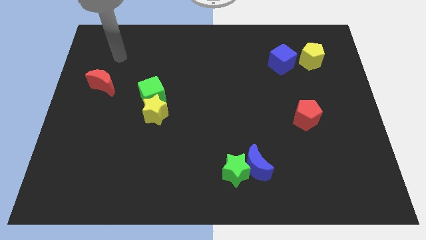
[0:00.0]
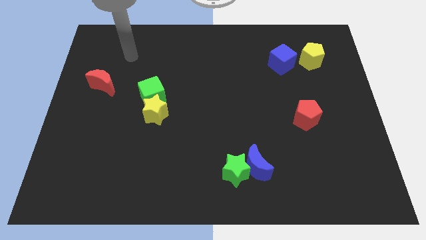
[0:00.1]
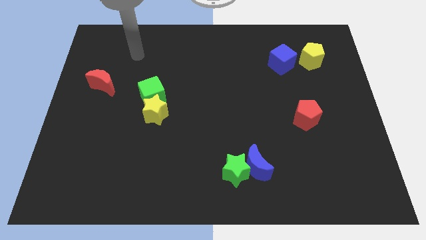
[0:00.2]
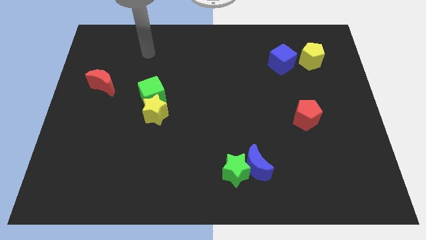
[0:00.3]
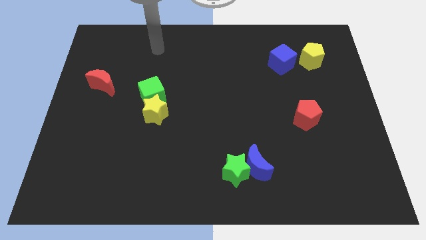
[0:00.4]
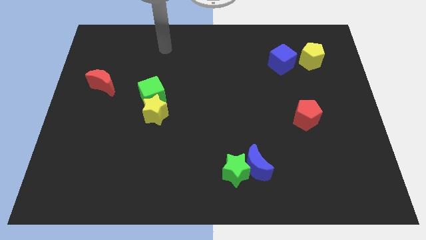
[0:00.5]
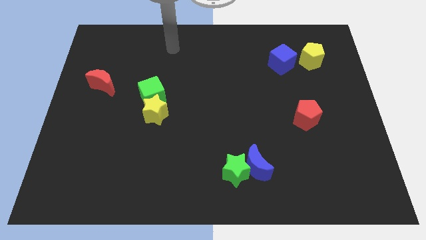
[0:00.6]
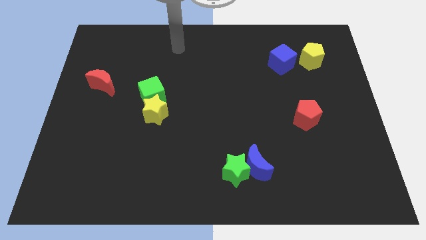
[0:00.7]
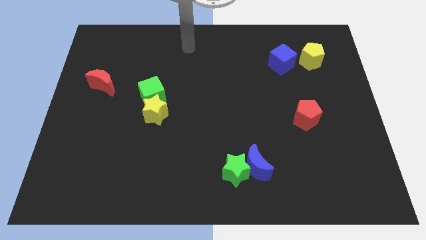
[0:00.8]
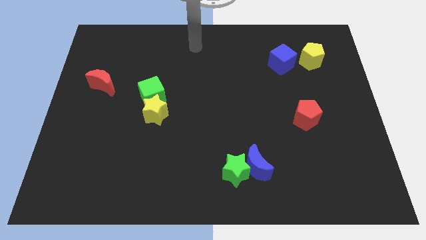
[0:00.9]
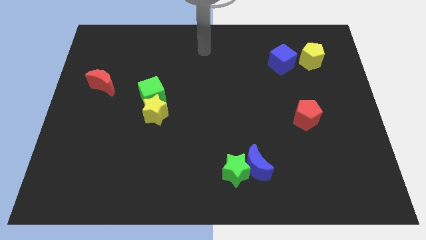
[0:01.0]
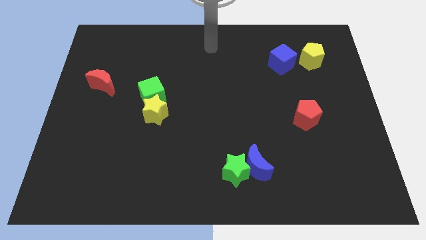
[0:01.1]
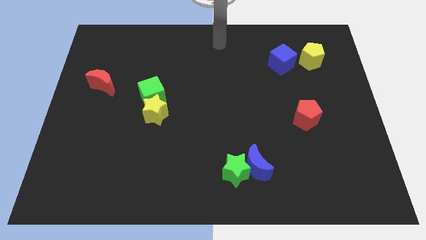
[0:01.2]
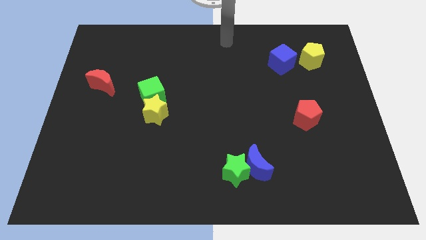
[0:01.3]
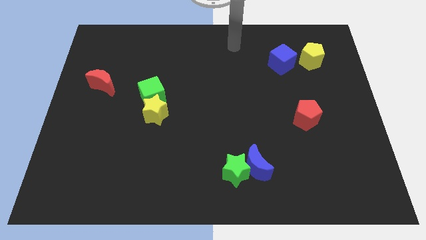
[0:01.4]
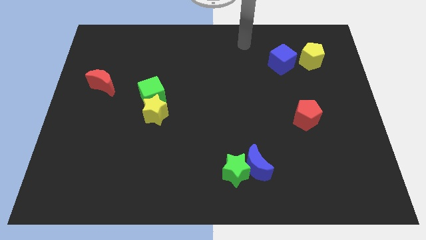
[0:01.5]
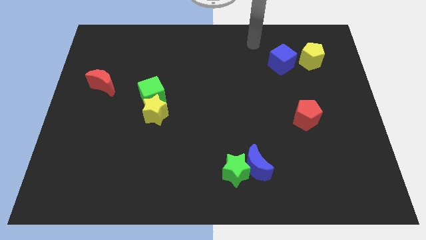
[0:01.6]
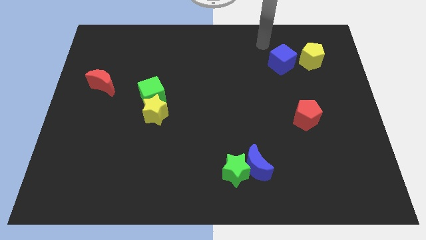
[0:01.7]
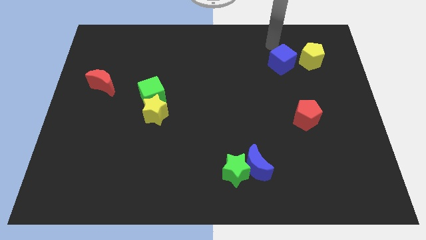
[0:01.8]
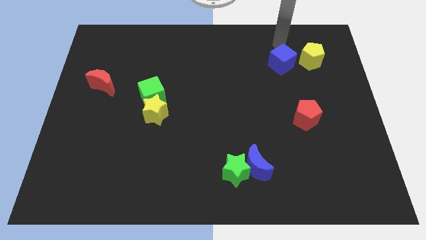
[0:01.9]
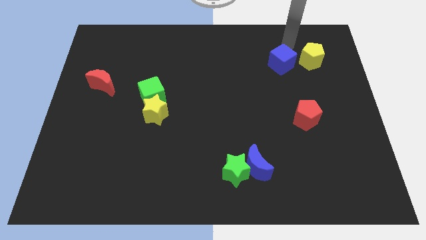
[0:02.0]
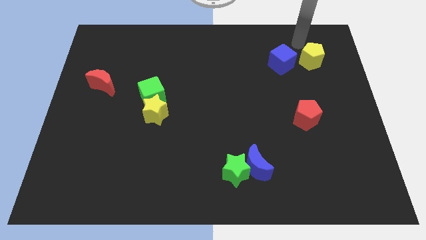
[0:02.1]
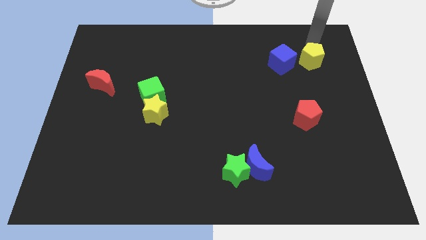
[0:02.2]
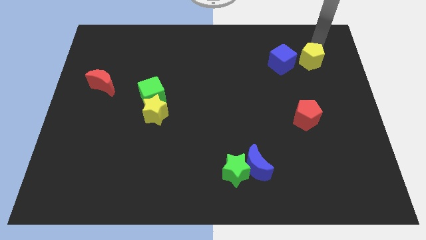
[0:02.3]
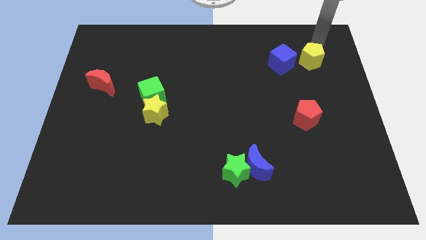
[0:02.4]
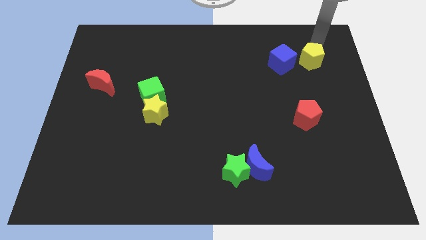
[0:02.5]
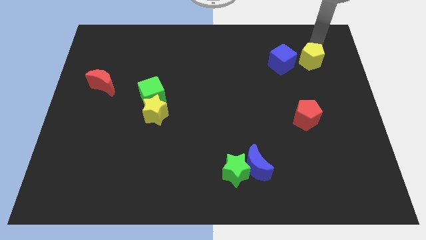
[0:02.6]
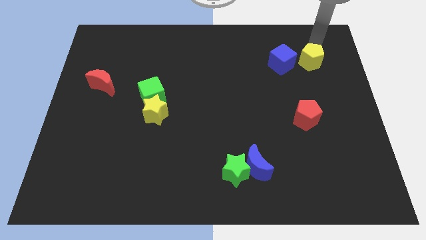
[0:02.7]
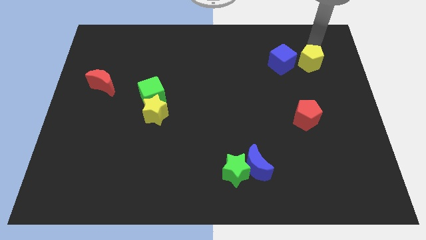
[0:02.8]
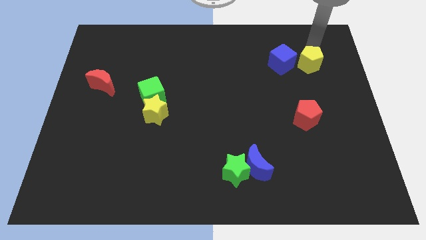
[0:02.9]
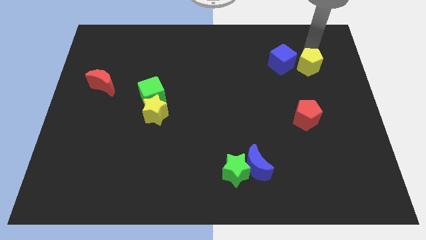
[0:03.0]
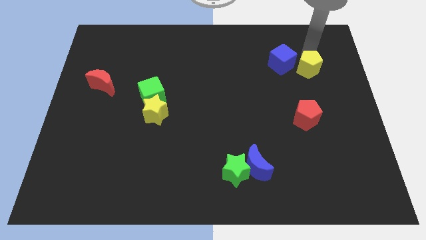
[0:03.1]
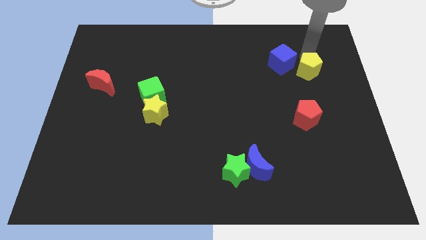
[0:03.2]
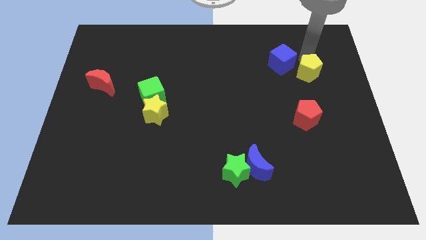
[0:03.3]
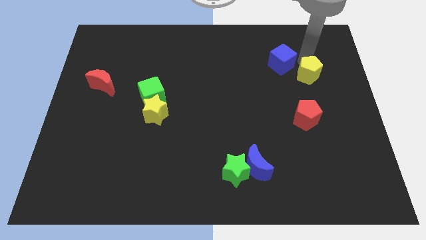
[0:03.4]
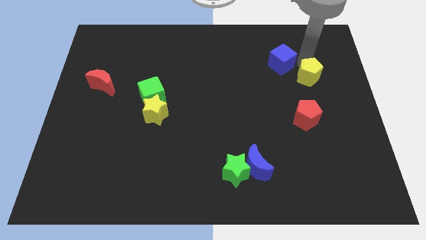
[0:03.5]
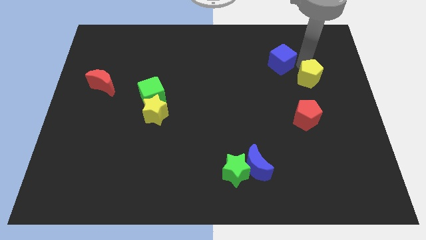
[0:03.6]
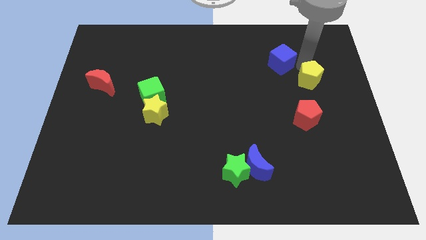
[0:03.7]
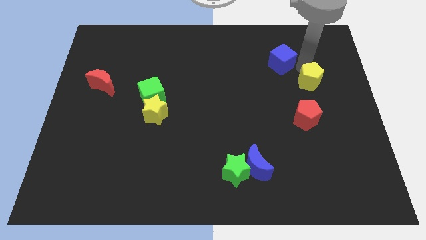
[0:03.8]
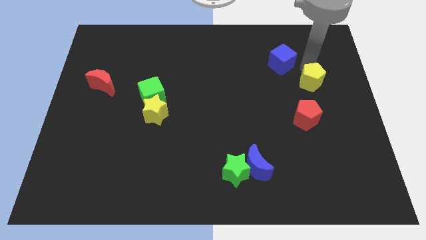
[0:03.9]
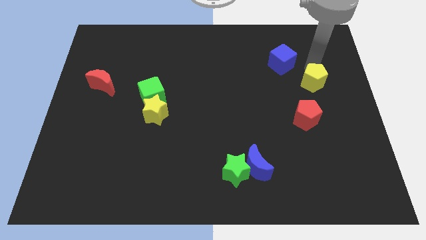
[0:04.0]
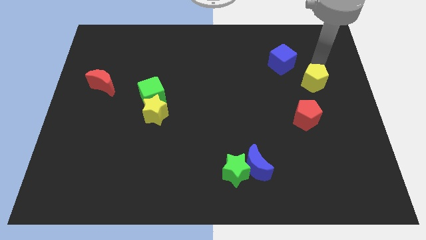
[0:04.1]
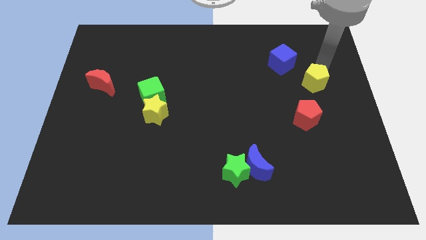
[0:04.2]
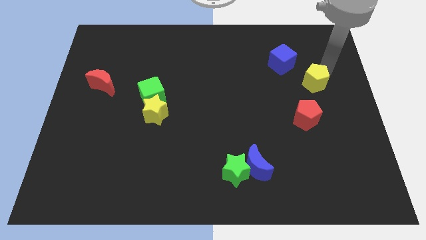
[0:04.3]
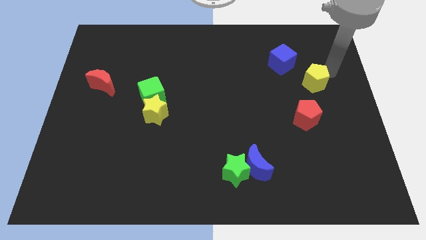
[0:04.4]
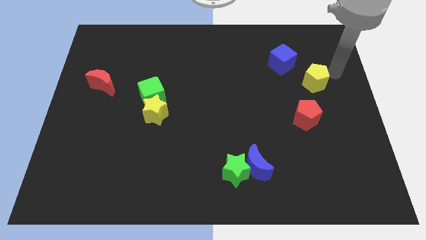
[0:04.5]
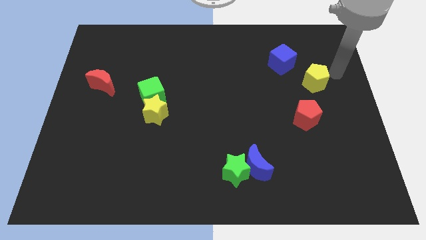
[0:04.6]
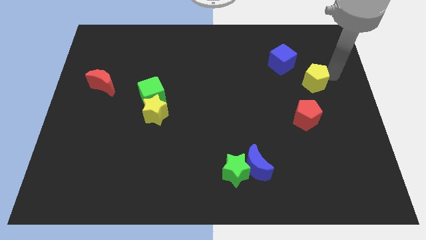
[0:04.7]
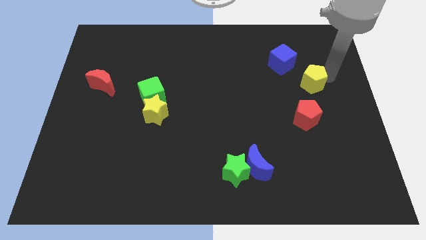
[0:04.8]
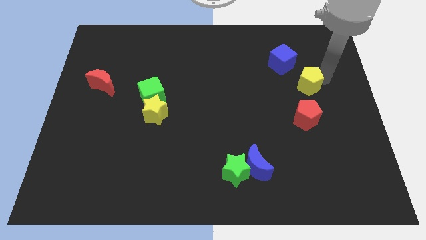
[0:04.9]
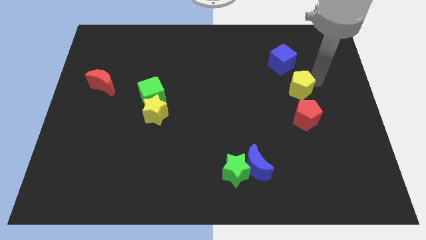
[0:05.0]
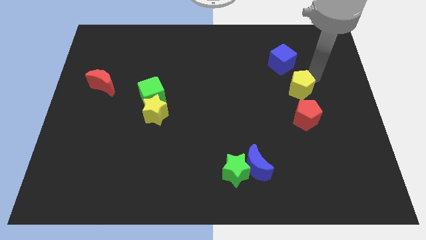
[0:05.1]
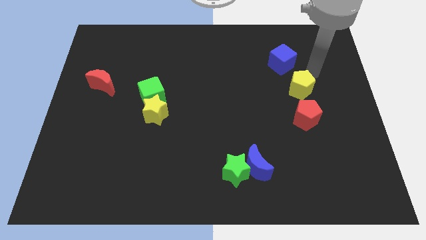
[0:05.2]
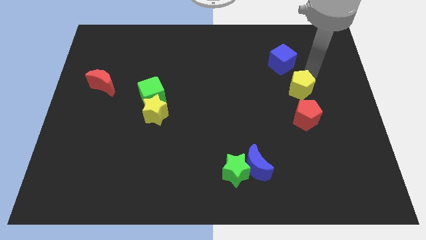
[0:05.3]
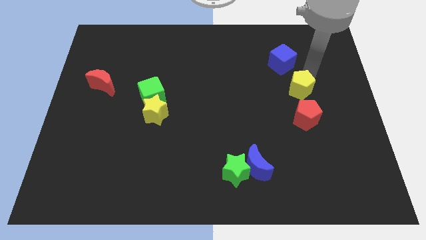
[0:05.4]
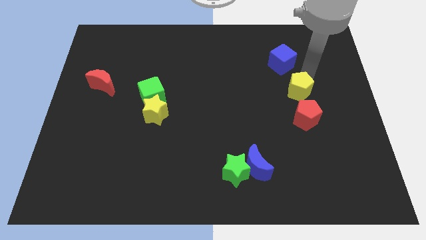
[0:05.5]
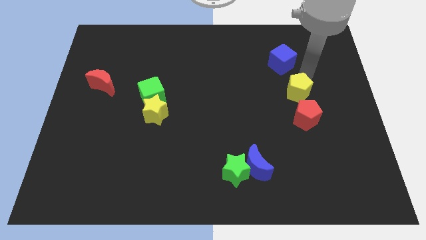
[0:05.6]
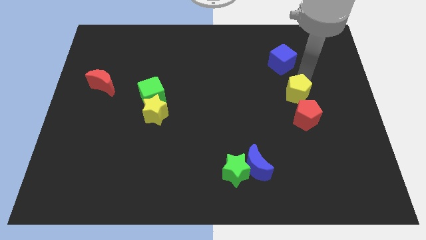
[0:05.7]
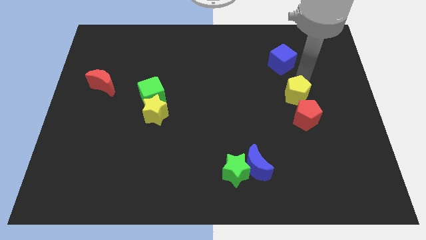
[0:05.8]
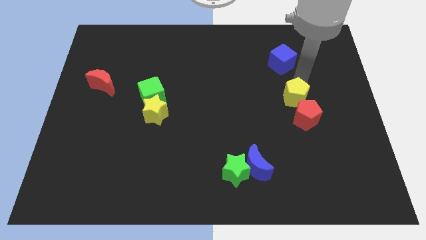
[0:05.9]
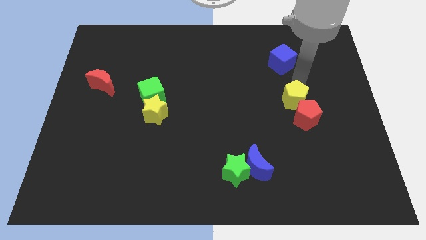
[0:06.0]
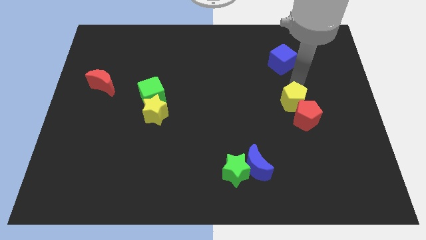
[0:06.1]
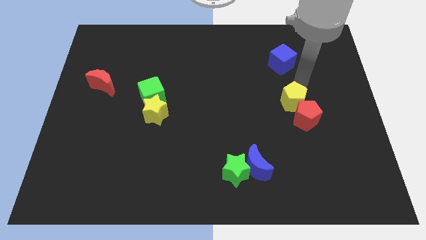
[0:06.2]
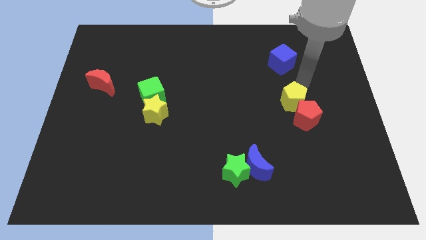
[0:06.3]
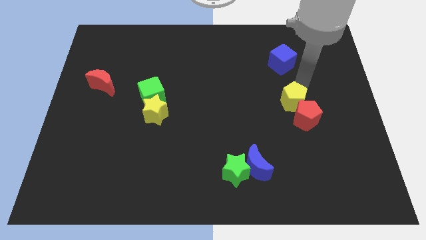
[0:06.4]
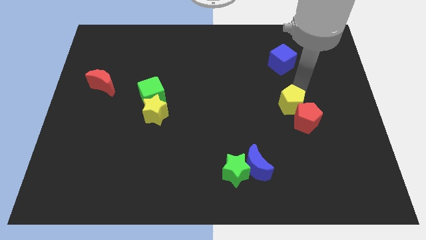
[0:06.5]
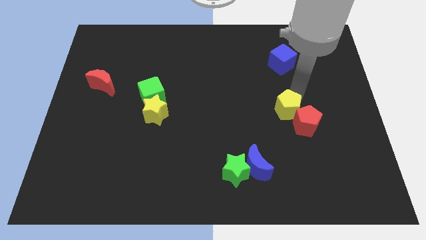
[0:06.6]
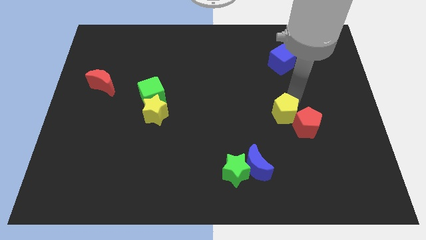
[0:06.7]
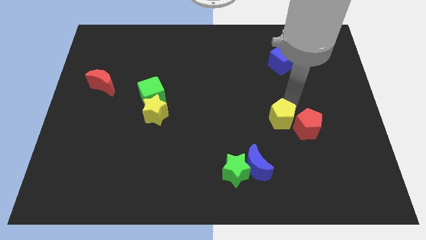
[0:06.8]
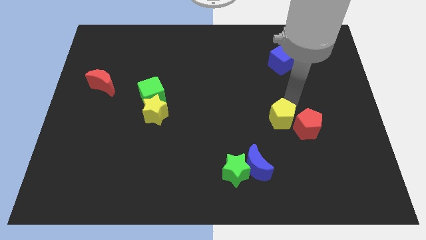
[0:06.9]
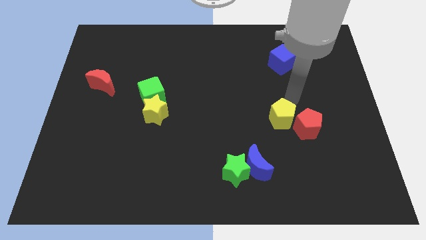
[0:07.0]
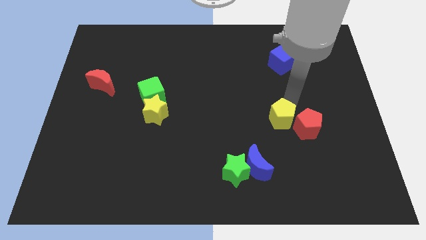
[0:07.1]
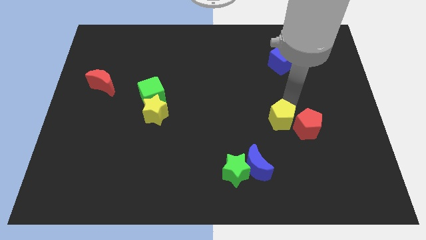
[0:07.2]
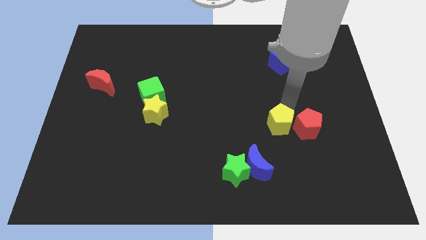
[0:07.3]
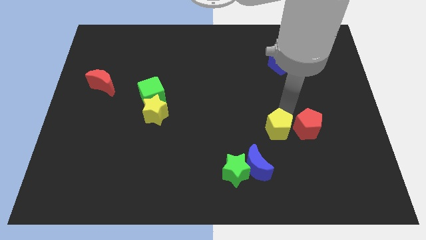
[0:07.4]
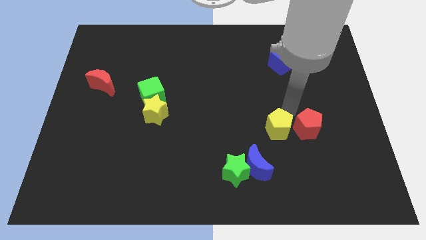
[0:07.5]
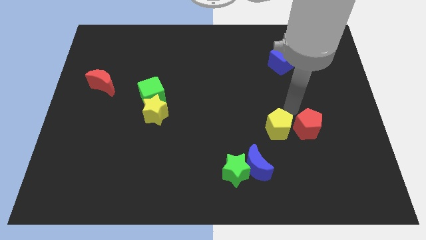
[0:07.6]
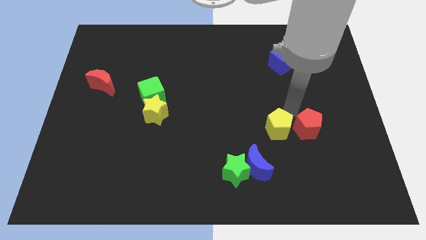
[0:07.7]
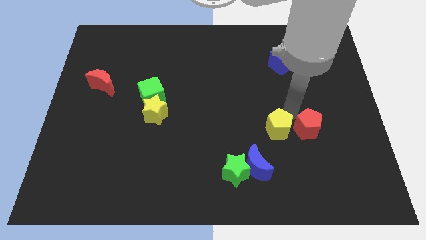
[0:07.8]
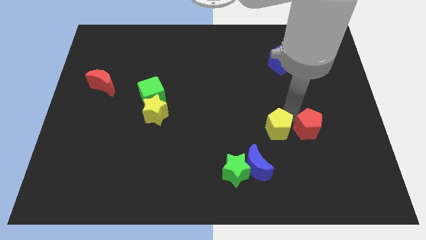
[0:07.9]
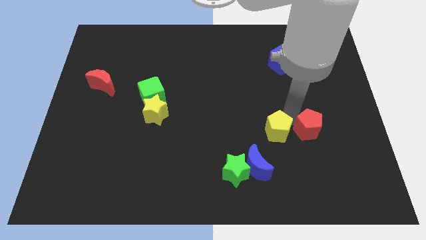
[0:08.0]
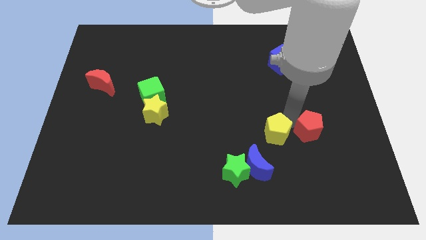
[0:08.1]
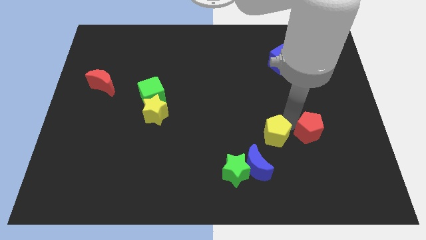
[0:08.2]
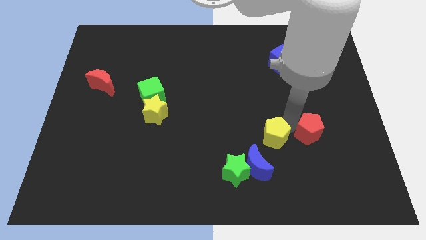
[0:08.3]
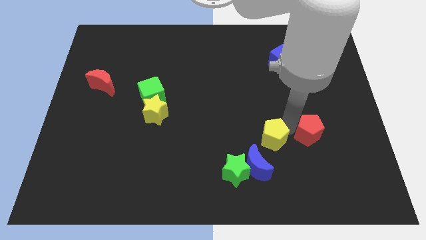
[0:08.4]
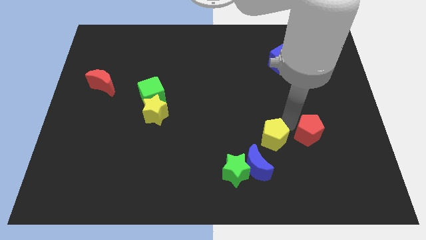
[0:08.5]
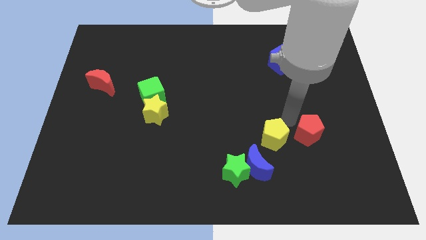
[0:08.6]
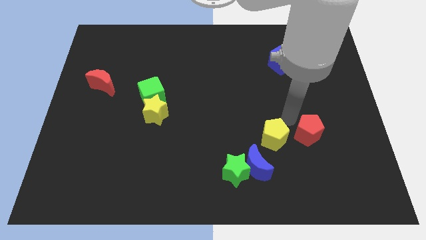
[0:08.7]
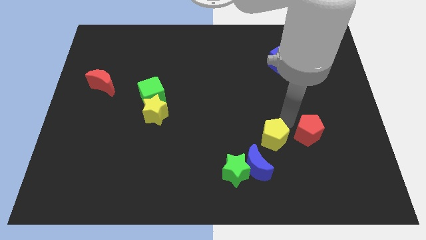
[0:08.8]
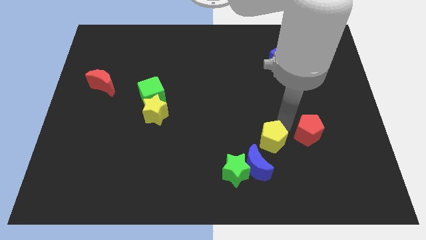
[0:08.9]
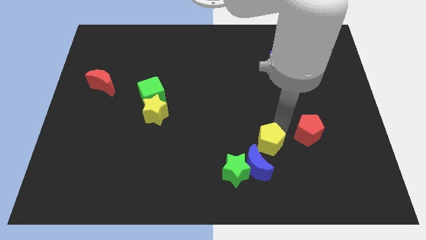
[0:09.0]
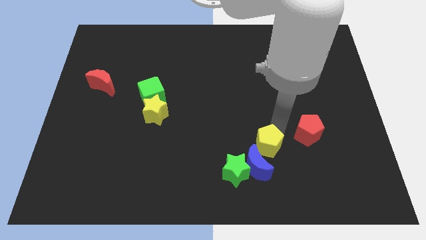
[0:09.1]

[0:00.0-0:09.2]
move the yellow pentagon next to the blue moon
